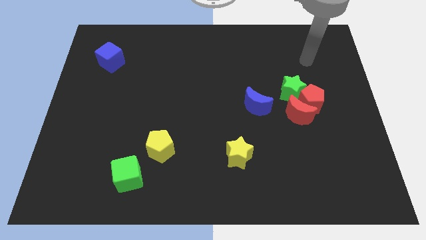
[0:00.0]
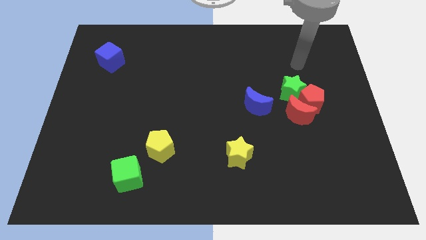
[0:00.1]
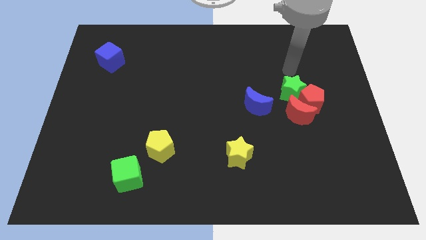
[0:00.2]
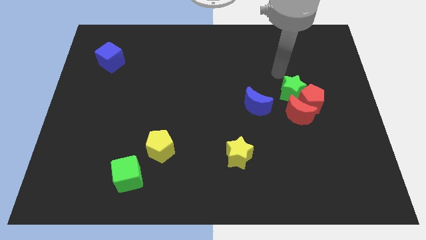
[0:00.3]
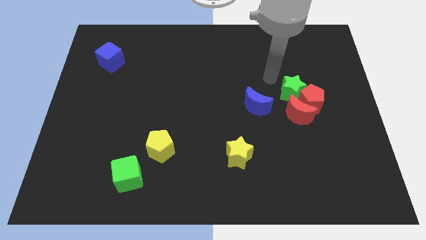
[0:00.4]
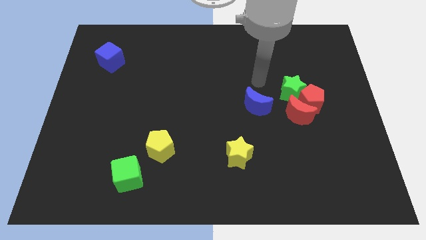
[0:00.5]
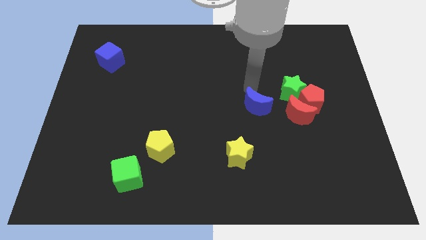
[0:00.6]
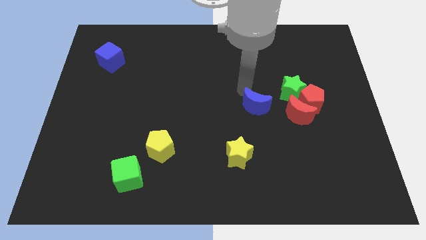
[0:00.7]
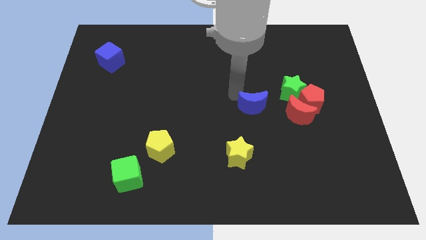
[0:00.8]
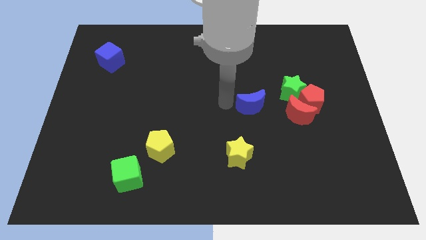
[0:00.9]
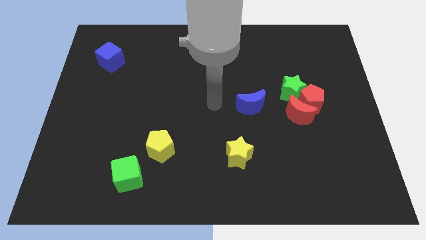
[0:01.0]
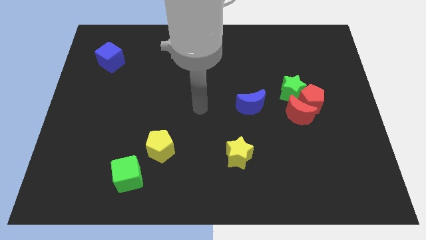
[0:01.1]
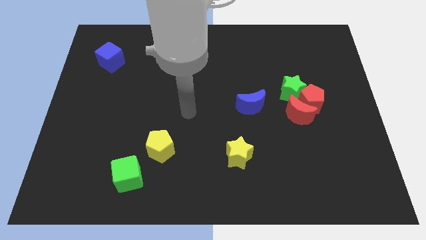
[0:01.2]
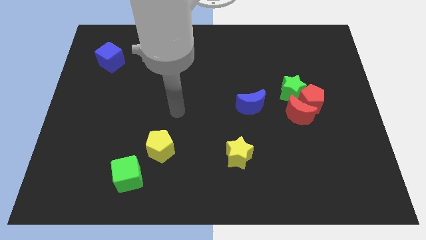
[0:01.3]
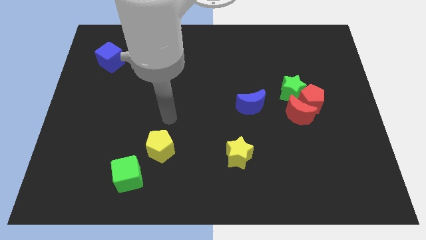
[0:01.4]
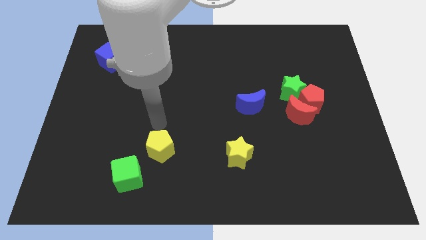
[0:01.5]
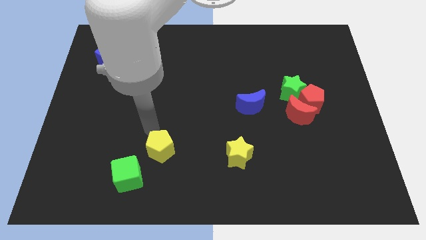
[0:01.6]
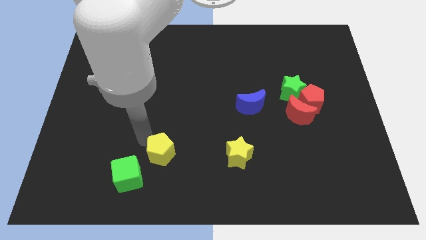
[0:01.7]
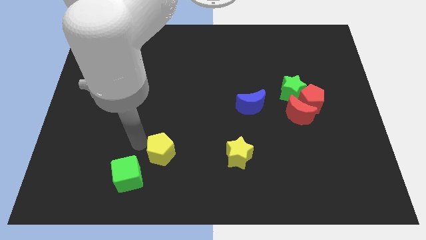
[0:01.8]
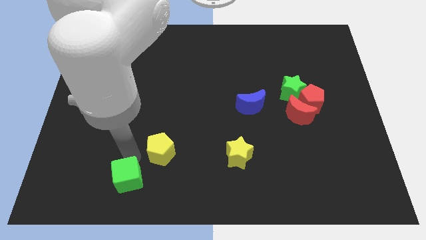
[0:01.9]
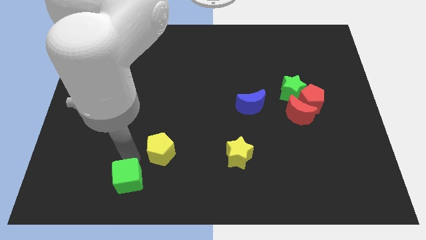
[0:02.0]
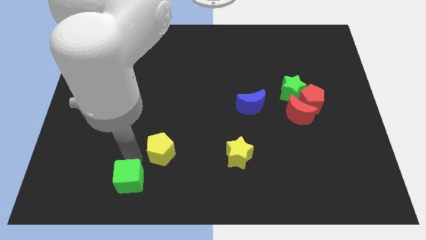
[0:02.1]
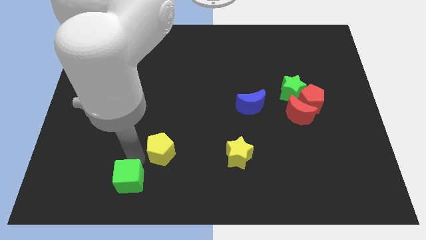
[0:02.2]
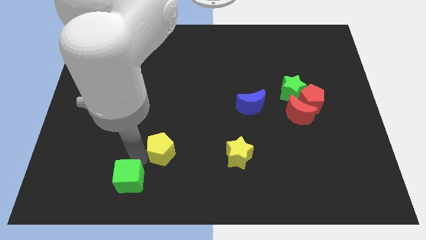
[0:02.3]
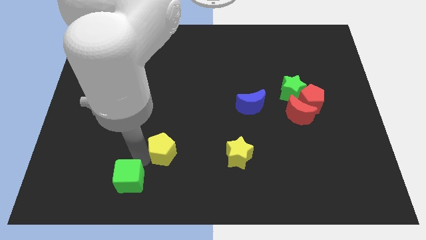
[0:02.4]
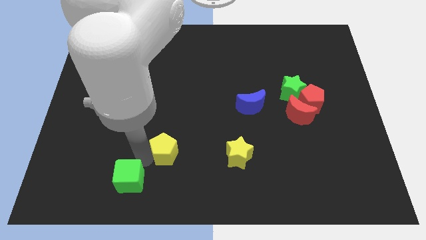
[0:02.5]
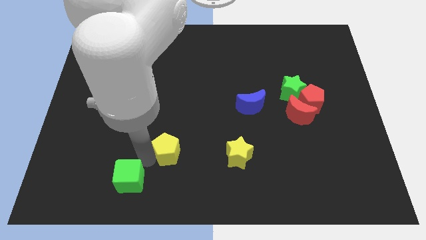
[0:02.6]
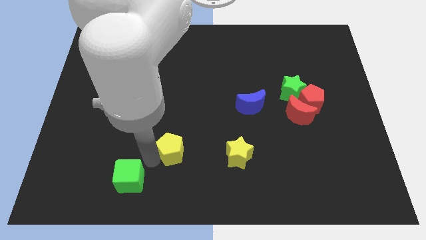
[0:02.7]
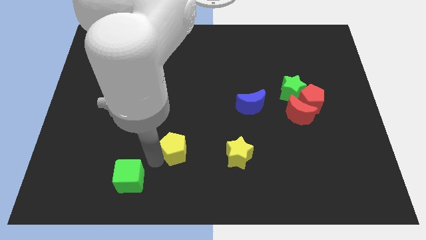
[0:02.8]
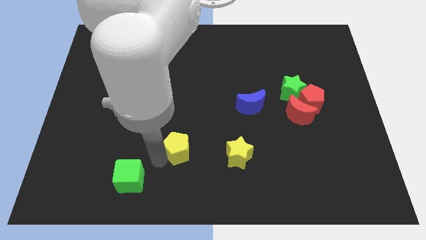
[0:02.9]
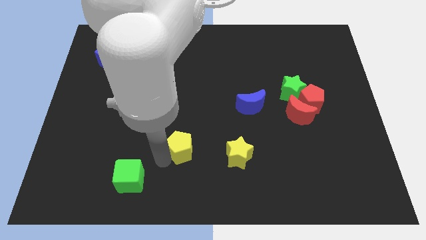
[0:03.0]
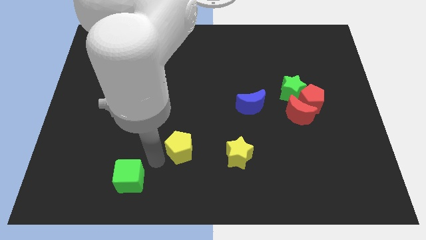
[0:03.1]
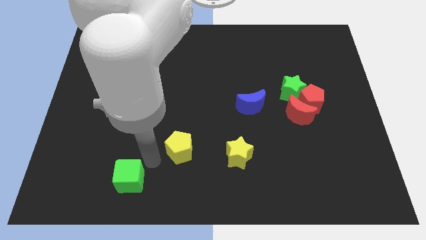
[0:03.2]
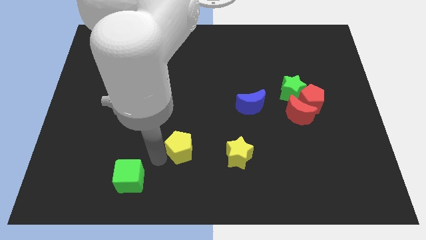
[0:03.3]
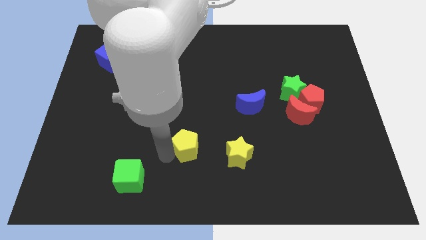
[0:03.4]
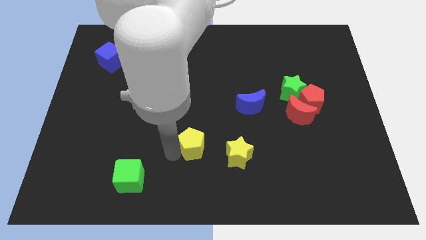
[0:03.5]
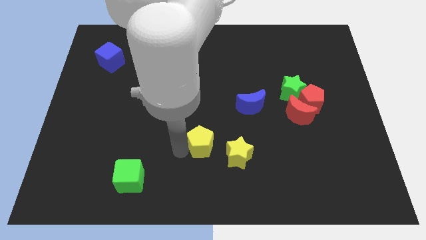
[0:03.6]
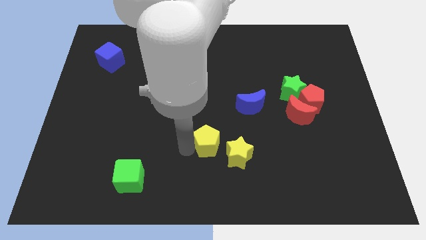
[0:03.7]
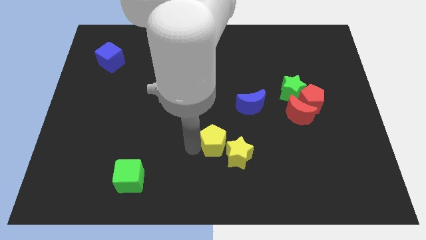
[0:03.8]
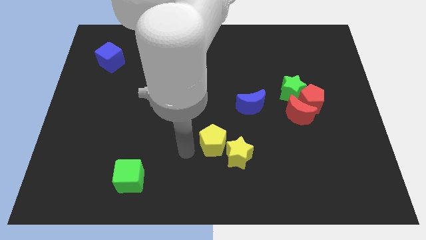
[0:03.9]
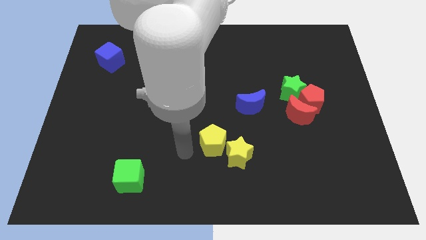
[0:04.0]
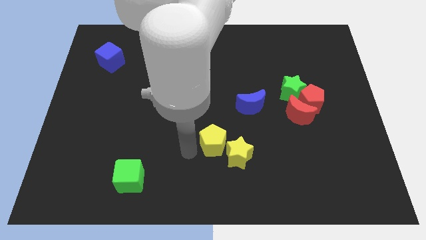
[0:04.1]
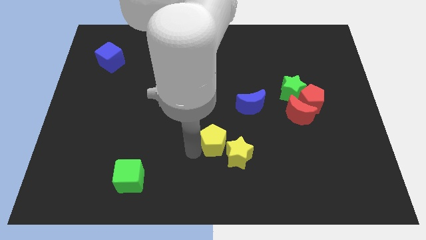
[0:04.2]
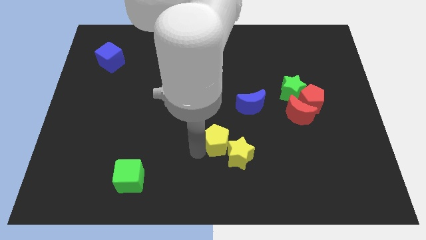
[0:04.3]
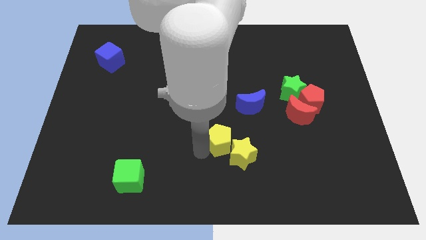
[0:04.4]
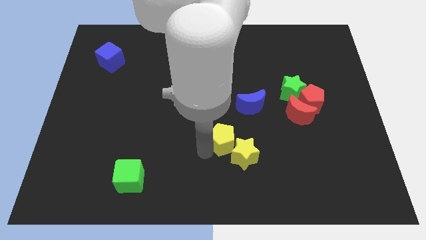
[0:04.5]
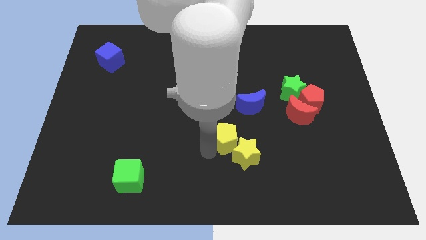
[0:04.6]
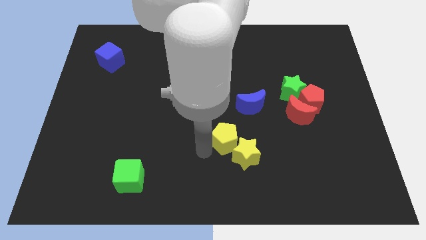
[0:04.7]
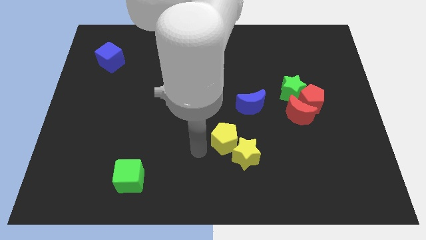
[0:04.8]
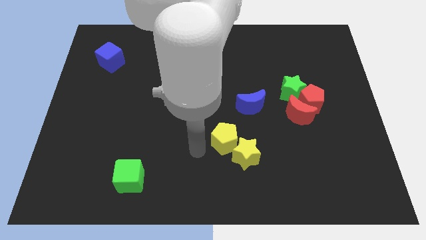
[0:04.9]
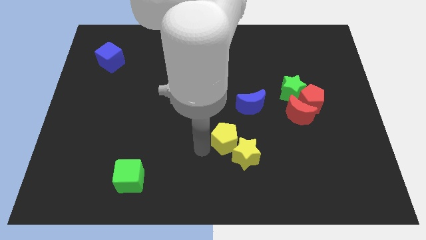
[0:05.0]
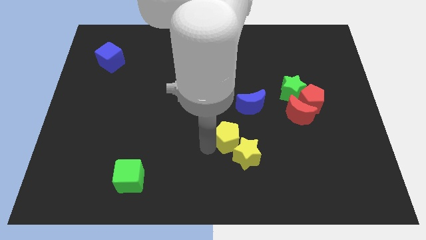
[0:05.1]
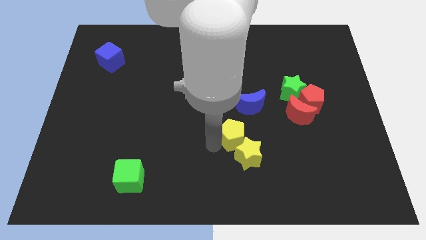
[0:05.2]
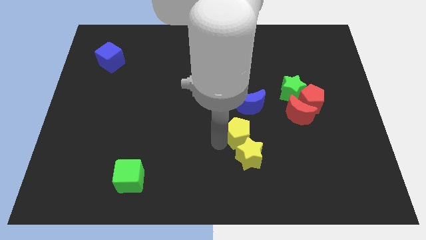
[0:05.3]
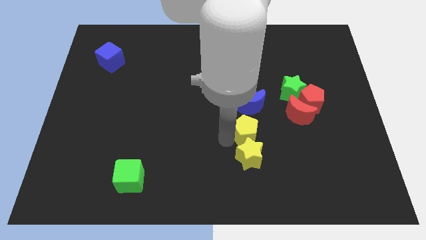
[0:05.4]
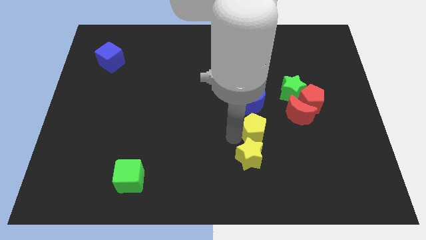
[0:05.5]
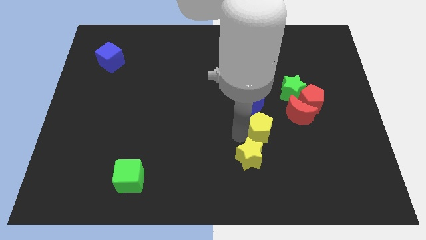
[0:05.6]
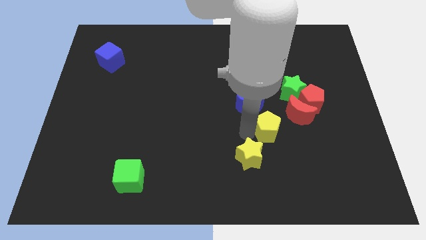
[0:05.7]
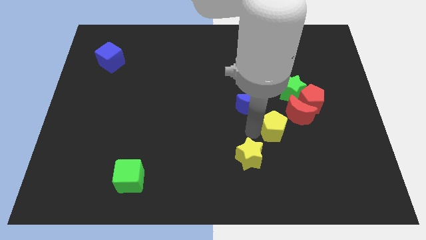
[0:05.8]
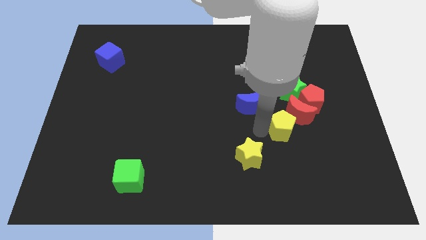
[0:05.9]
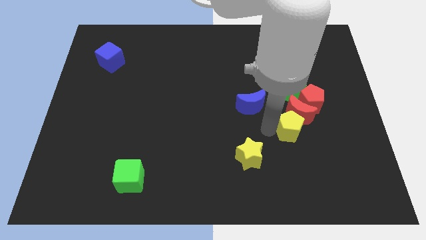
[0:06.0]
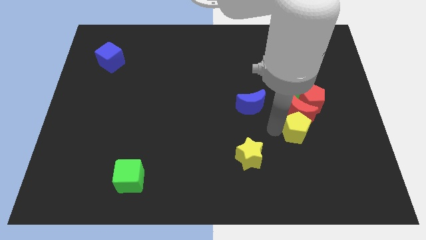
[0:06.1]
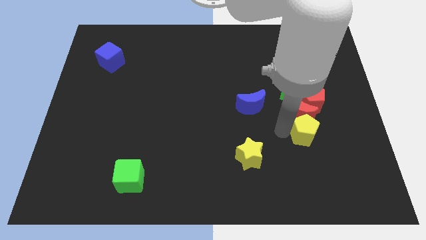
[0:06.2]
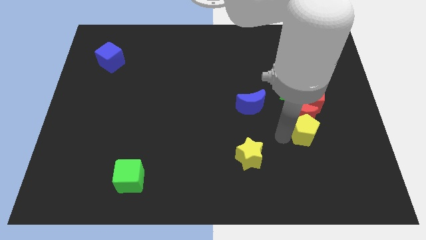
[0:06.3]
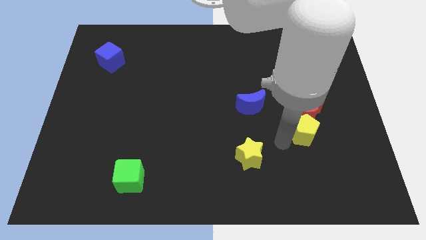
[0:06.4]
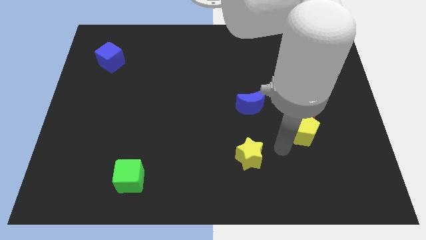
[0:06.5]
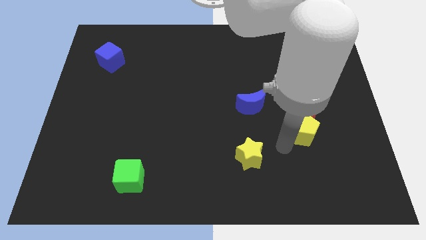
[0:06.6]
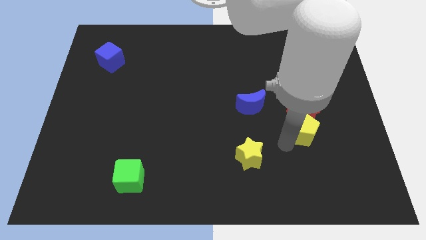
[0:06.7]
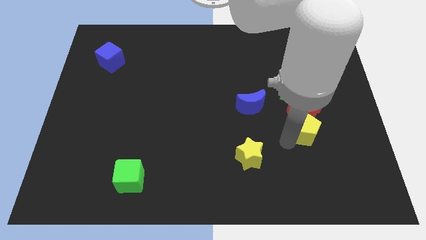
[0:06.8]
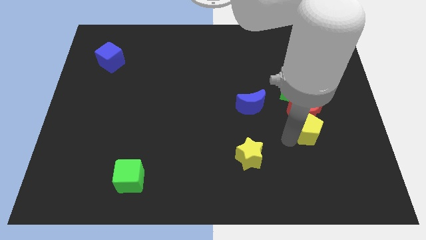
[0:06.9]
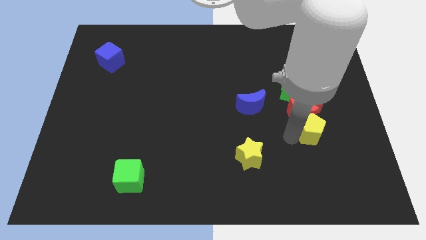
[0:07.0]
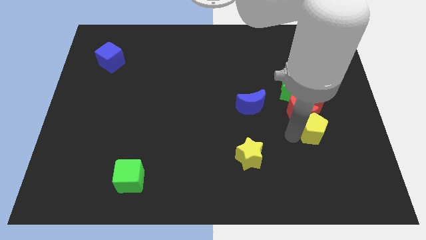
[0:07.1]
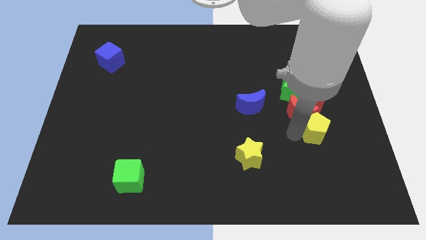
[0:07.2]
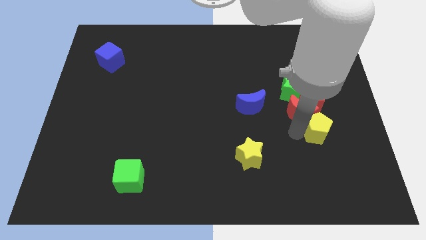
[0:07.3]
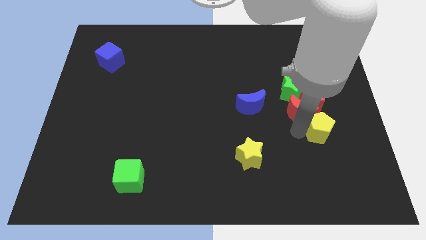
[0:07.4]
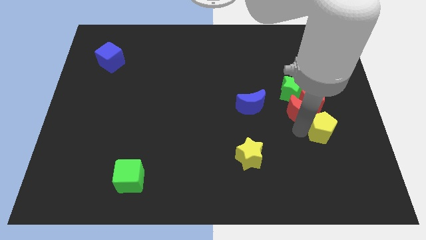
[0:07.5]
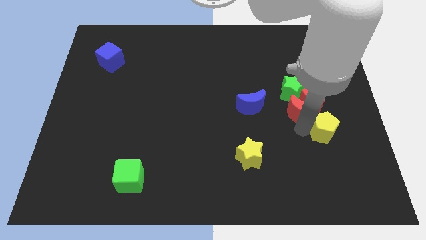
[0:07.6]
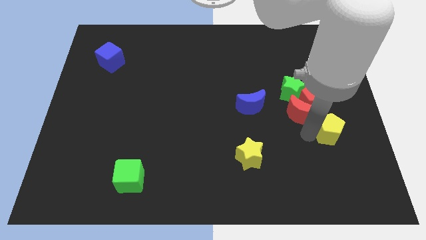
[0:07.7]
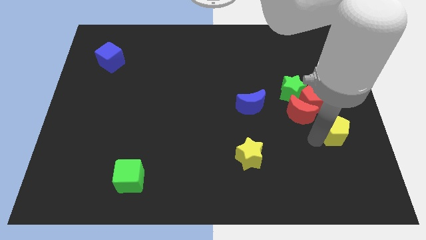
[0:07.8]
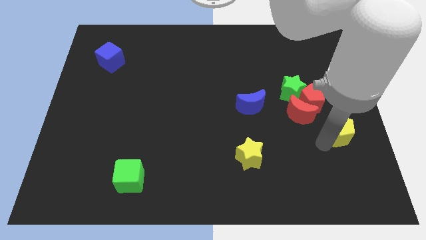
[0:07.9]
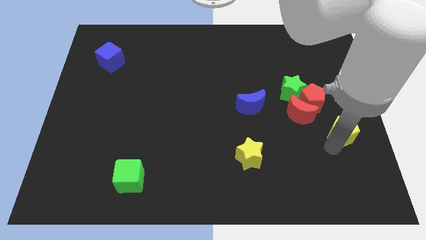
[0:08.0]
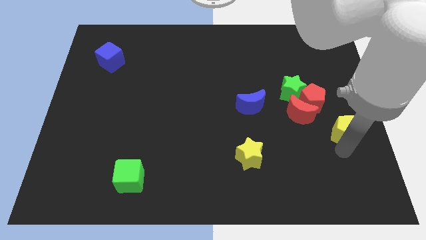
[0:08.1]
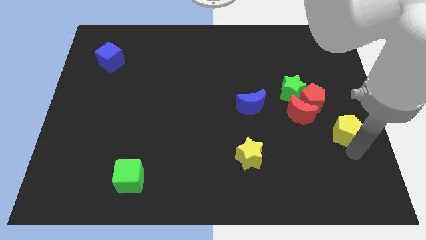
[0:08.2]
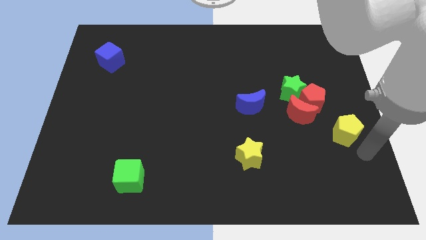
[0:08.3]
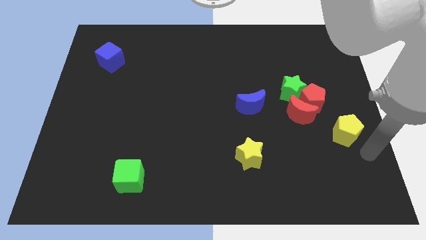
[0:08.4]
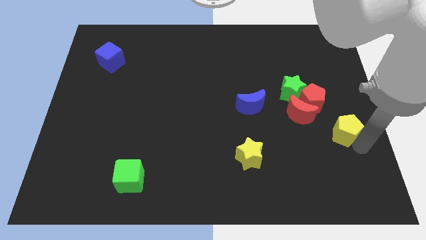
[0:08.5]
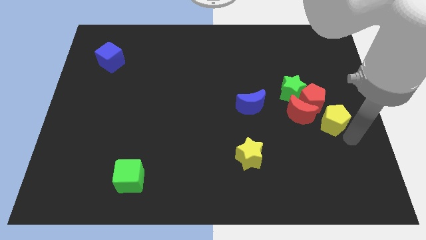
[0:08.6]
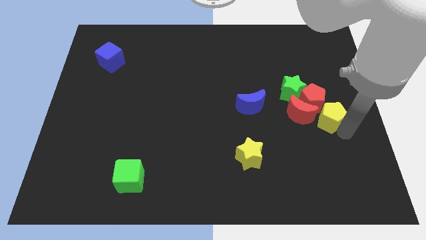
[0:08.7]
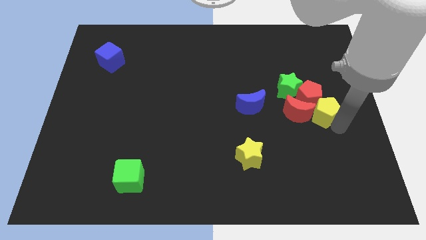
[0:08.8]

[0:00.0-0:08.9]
put the yellow pentagon close to the red pentagon
